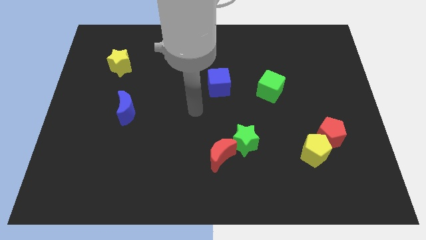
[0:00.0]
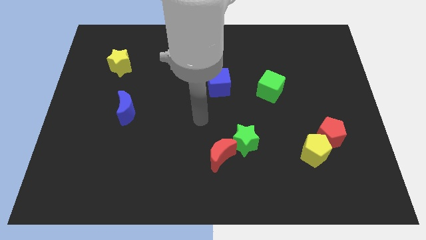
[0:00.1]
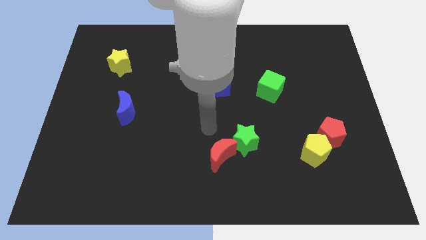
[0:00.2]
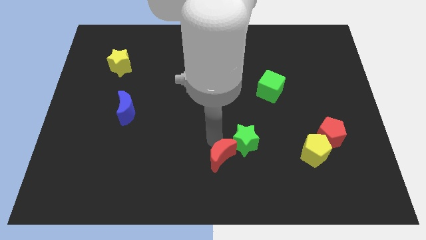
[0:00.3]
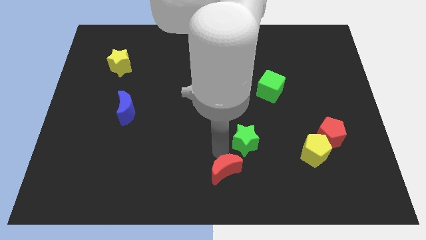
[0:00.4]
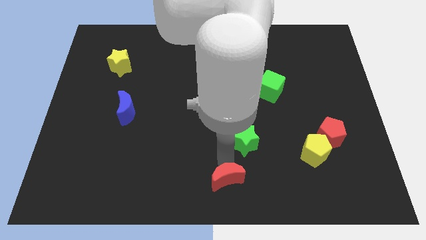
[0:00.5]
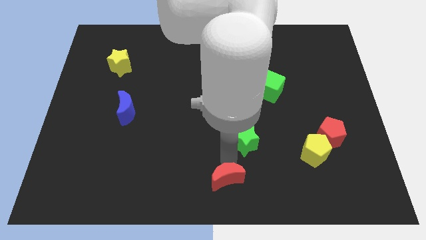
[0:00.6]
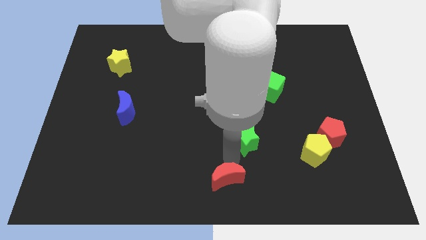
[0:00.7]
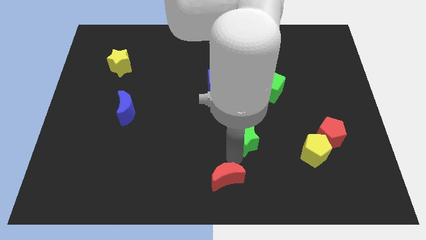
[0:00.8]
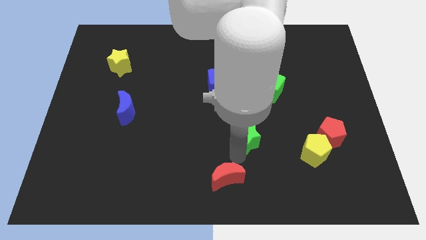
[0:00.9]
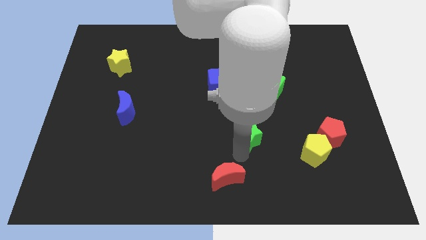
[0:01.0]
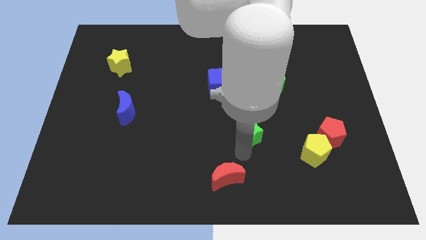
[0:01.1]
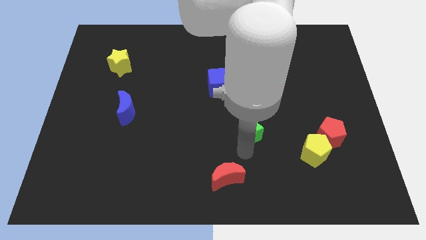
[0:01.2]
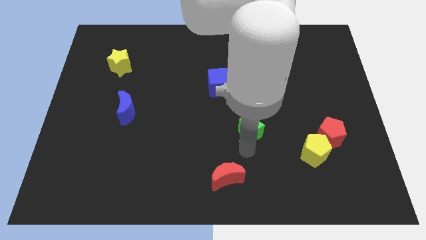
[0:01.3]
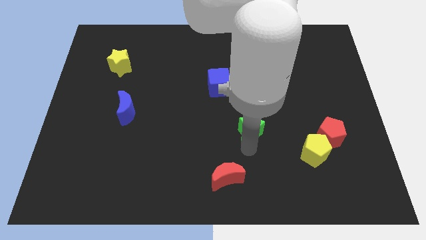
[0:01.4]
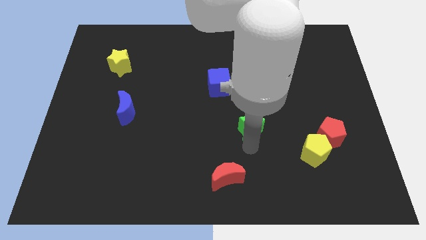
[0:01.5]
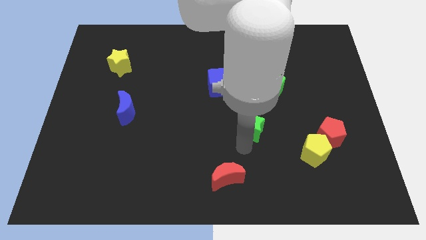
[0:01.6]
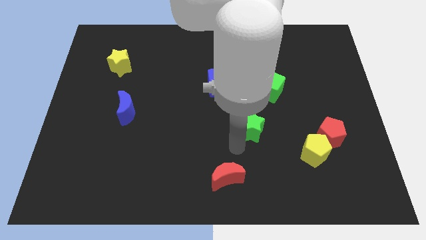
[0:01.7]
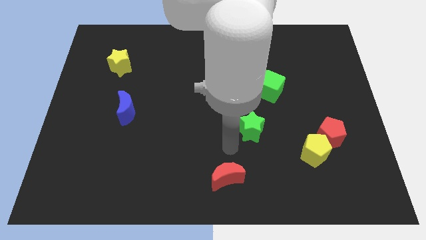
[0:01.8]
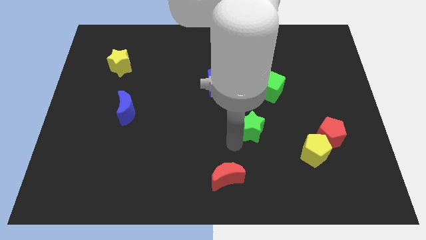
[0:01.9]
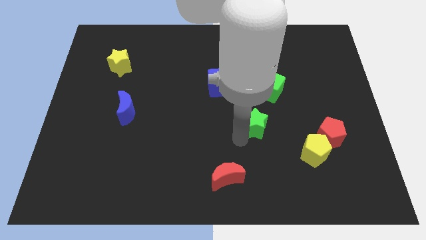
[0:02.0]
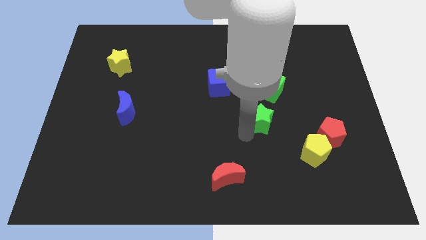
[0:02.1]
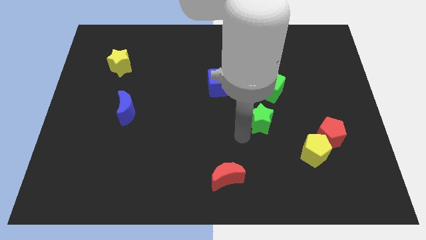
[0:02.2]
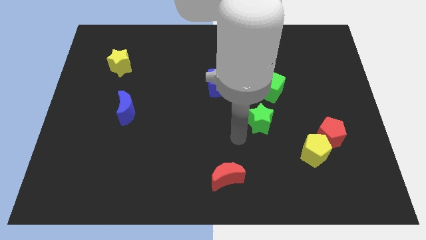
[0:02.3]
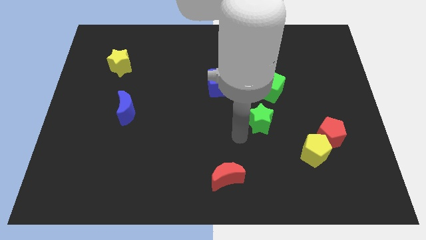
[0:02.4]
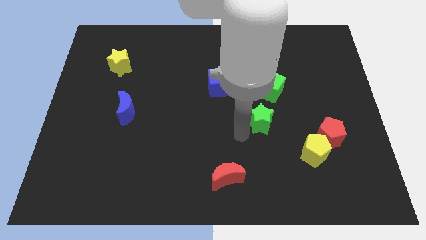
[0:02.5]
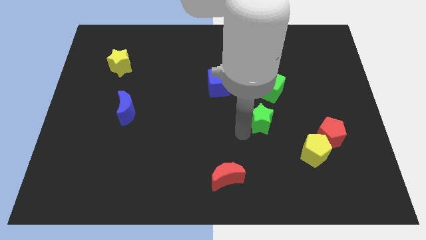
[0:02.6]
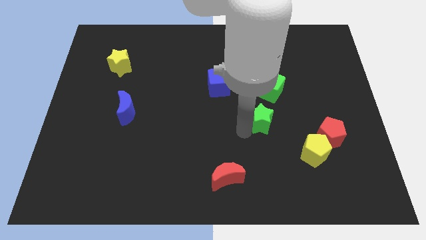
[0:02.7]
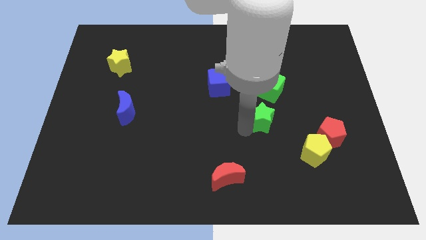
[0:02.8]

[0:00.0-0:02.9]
slide the green star diagonally upwards and to the right a bit

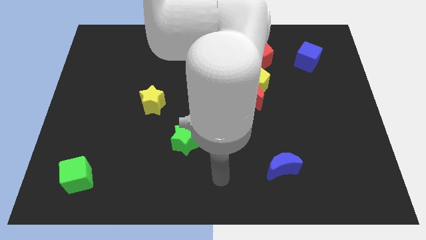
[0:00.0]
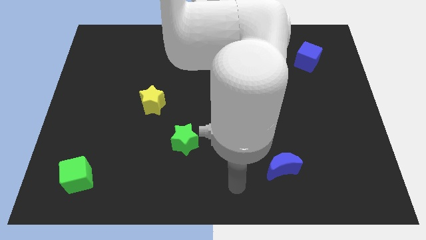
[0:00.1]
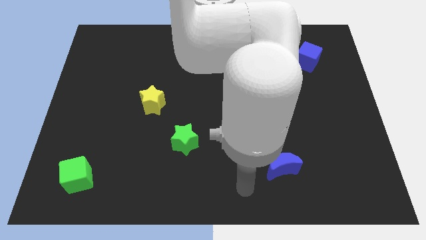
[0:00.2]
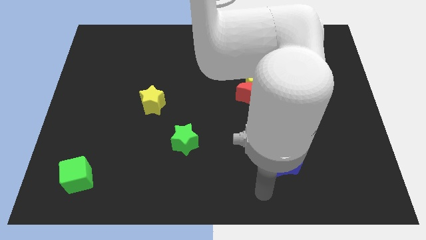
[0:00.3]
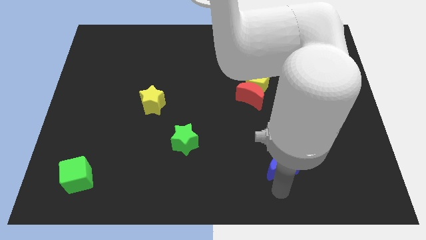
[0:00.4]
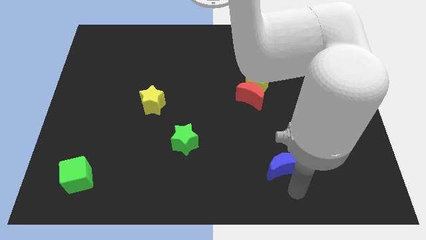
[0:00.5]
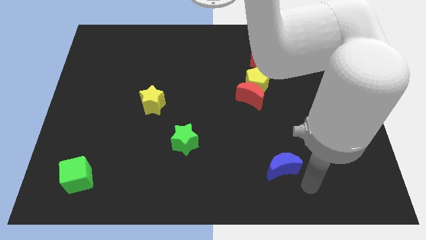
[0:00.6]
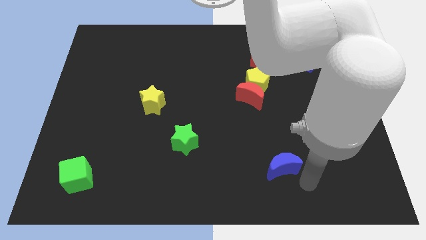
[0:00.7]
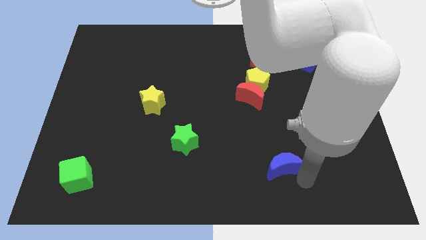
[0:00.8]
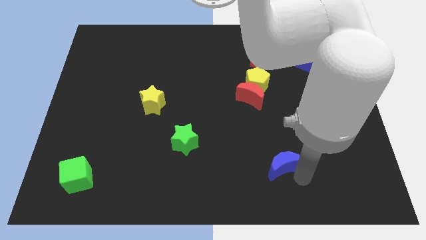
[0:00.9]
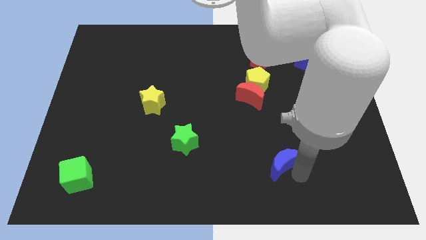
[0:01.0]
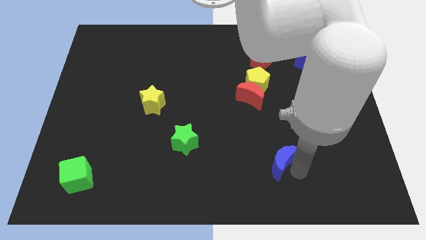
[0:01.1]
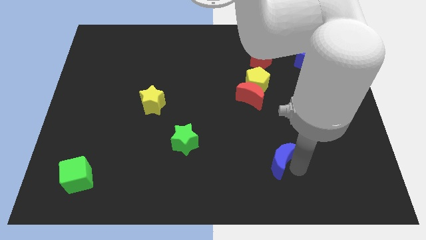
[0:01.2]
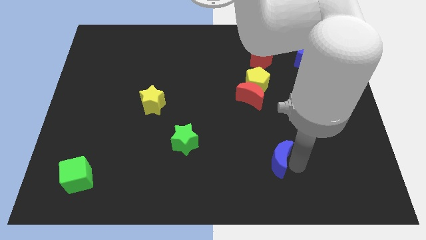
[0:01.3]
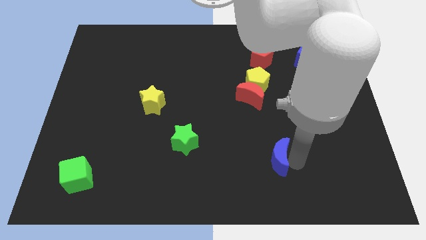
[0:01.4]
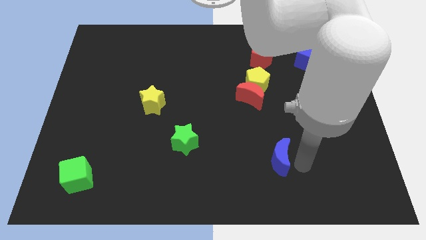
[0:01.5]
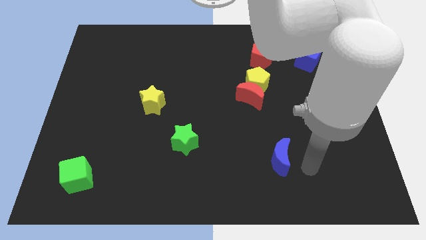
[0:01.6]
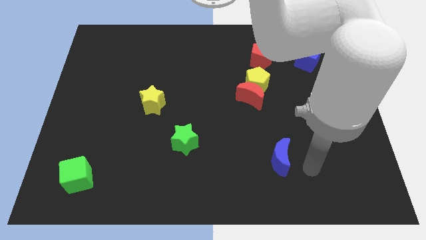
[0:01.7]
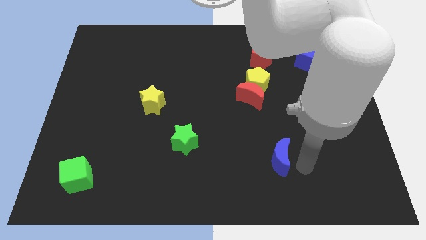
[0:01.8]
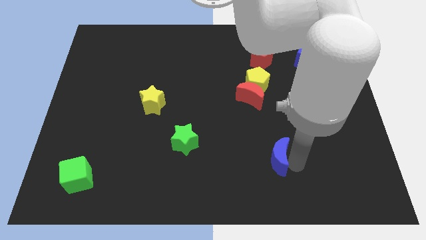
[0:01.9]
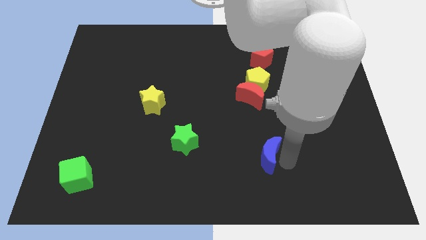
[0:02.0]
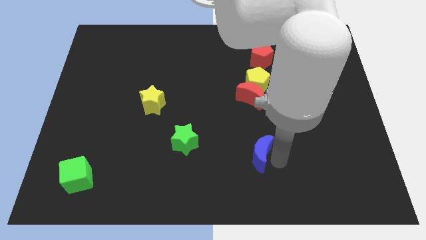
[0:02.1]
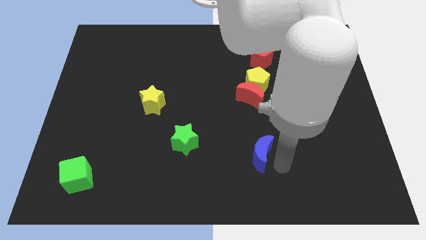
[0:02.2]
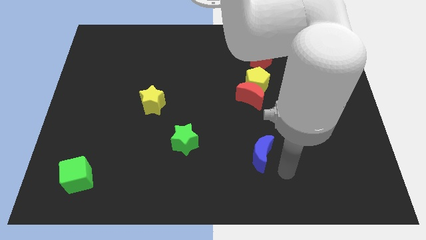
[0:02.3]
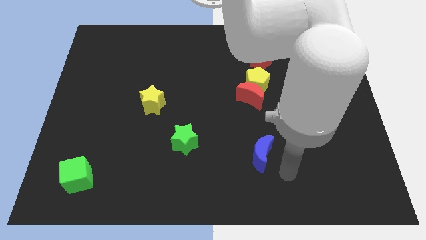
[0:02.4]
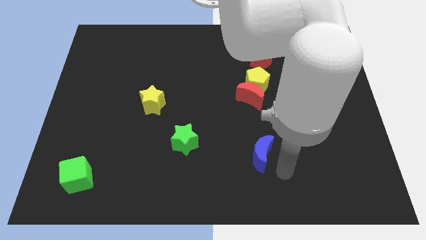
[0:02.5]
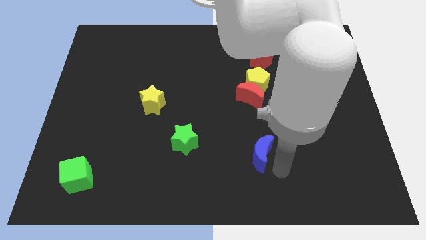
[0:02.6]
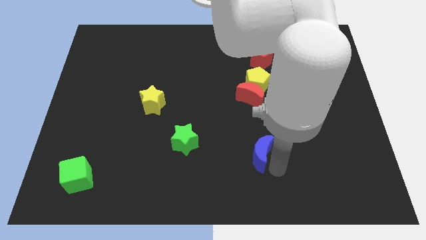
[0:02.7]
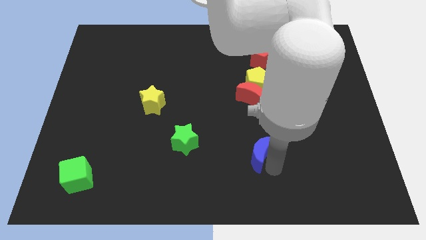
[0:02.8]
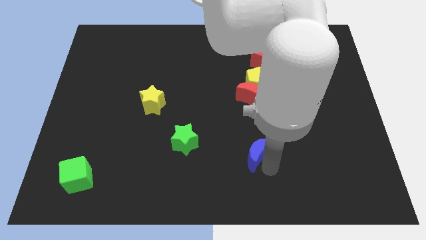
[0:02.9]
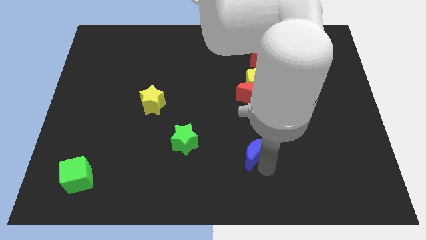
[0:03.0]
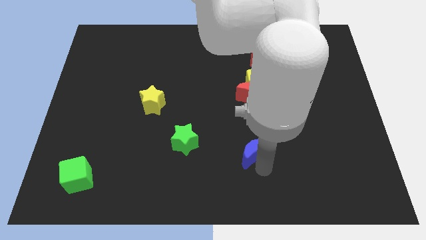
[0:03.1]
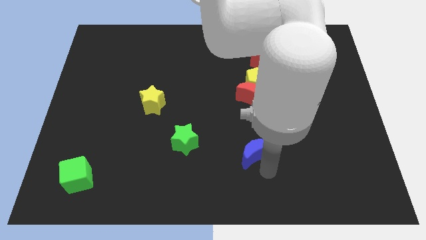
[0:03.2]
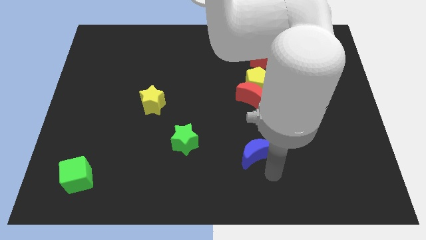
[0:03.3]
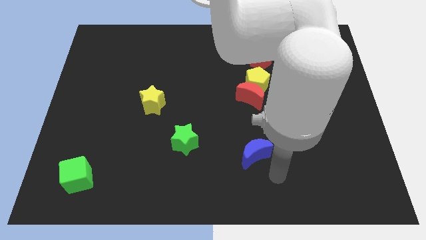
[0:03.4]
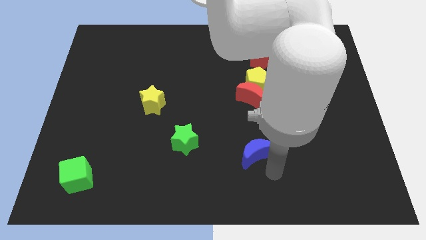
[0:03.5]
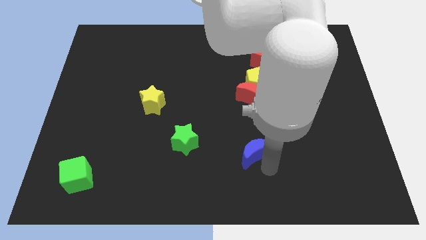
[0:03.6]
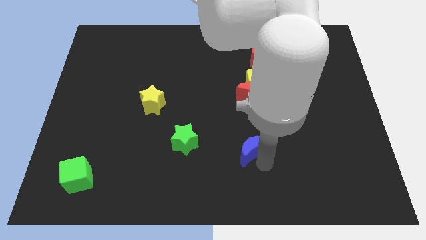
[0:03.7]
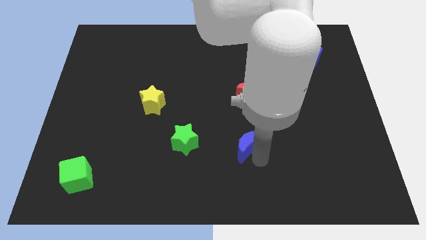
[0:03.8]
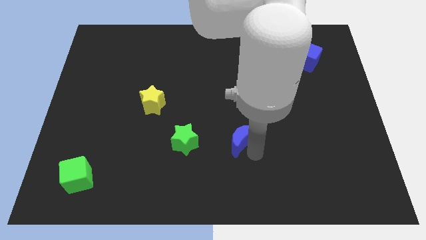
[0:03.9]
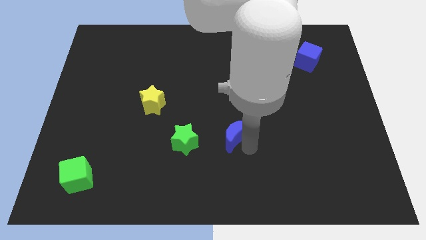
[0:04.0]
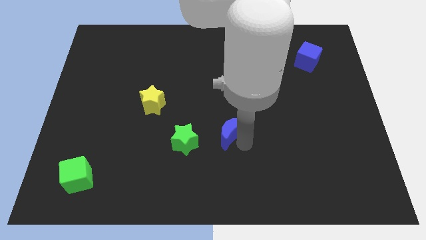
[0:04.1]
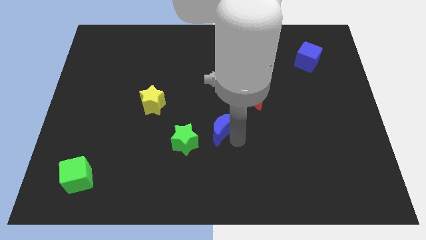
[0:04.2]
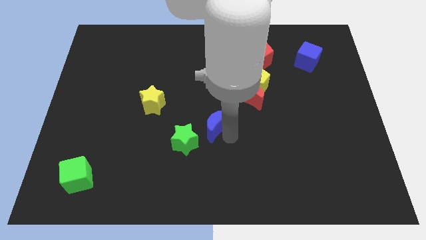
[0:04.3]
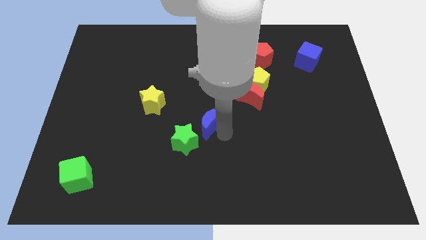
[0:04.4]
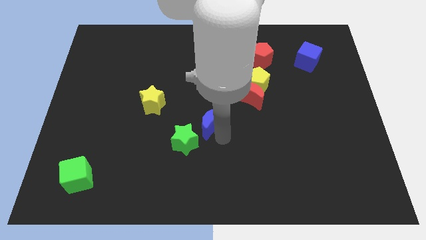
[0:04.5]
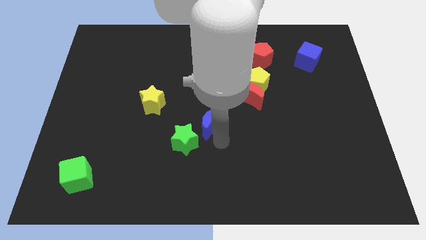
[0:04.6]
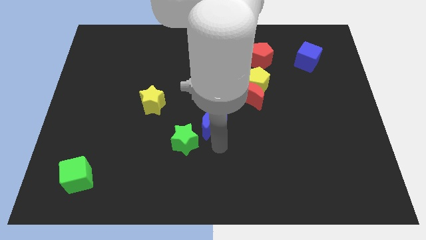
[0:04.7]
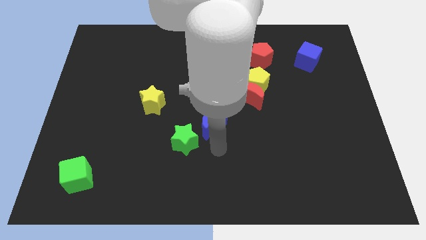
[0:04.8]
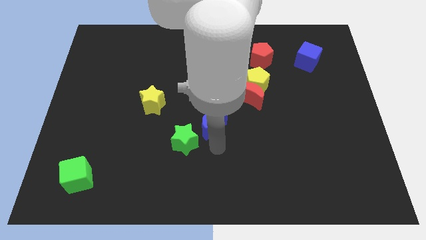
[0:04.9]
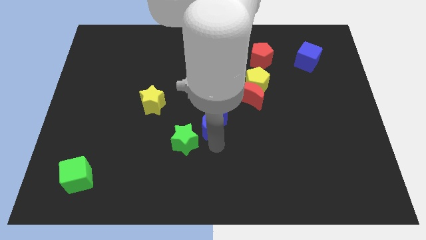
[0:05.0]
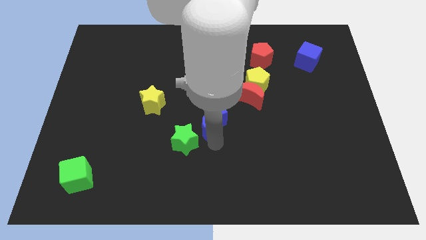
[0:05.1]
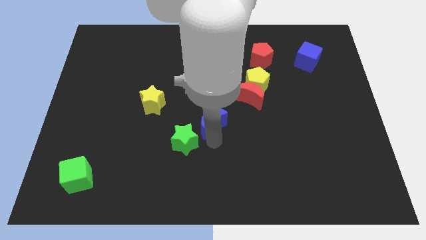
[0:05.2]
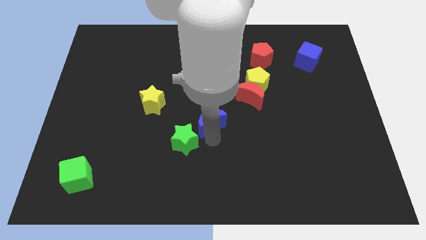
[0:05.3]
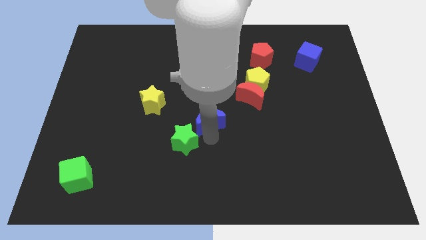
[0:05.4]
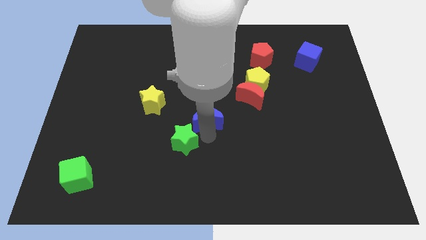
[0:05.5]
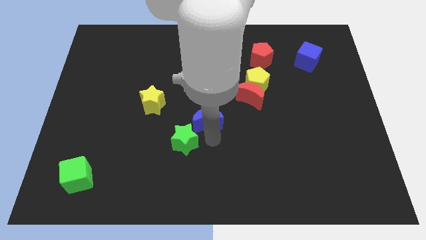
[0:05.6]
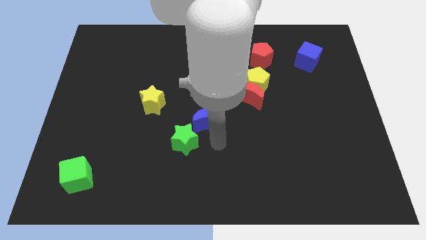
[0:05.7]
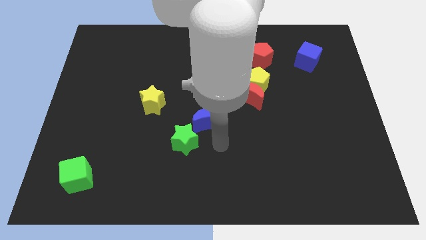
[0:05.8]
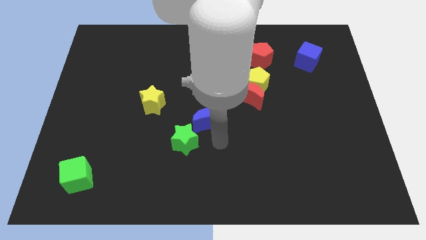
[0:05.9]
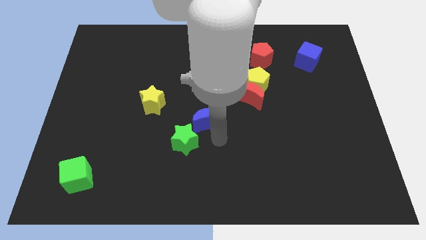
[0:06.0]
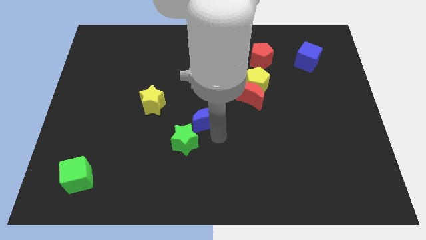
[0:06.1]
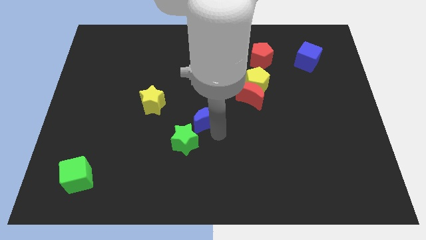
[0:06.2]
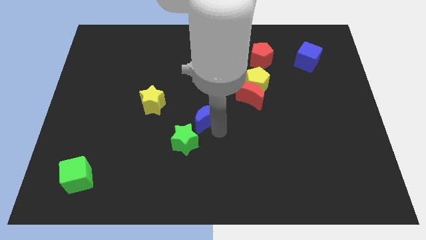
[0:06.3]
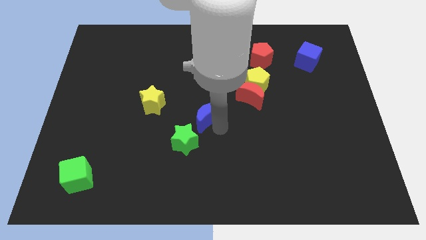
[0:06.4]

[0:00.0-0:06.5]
push the blue moon up and left
